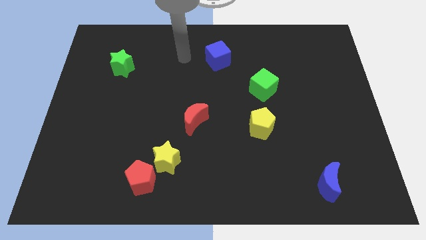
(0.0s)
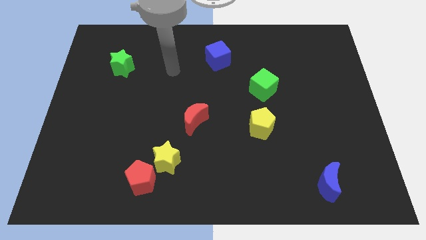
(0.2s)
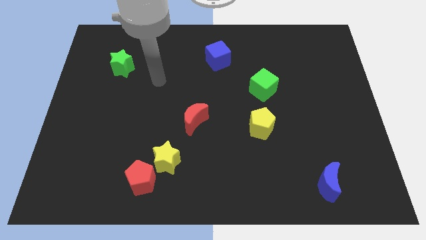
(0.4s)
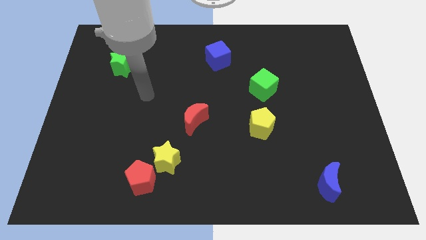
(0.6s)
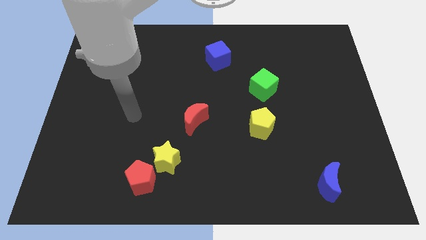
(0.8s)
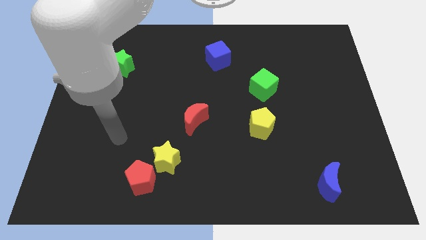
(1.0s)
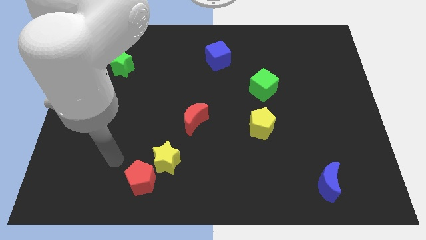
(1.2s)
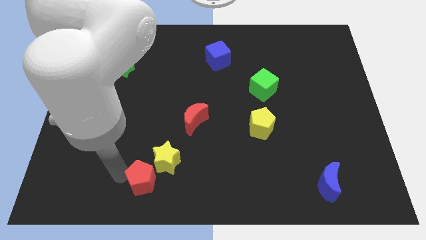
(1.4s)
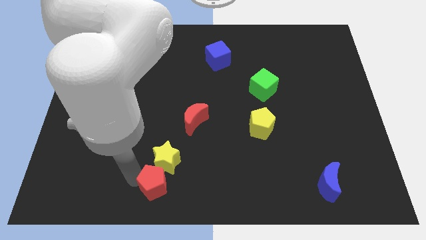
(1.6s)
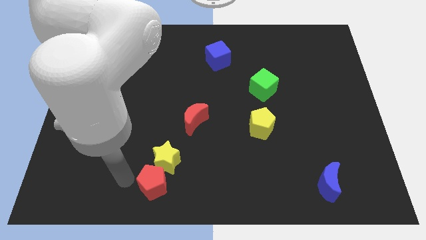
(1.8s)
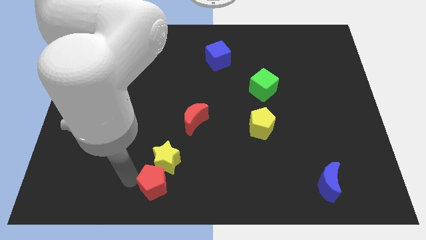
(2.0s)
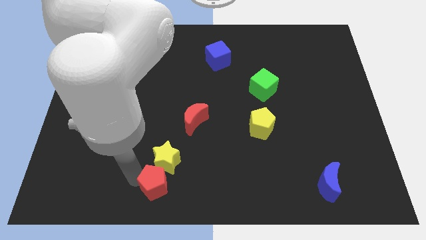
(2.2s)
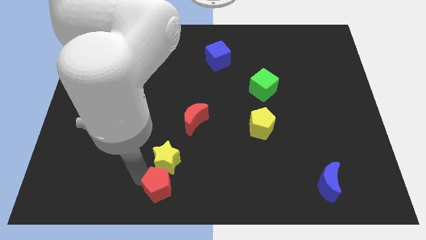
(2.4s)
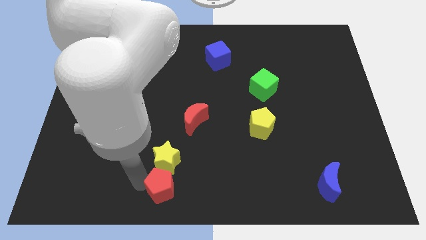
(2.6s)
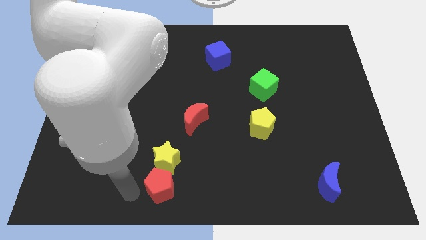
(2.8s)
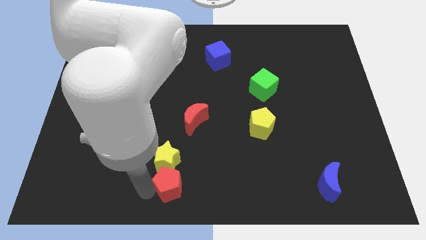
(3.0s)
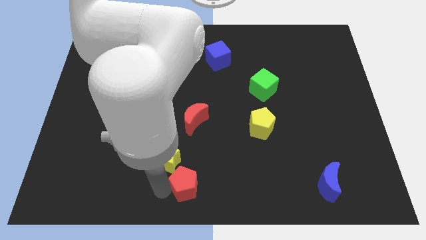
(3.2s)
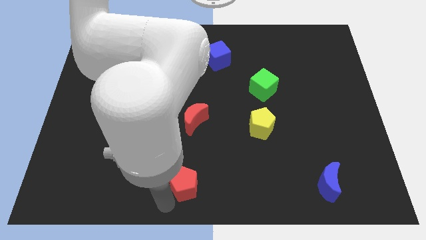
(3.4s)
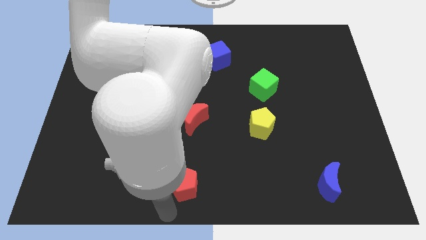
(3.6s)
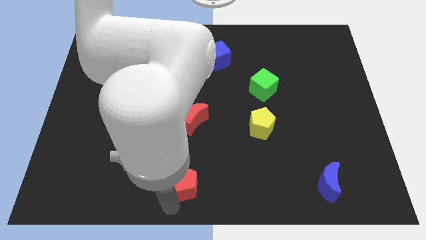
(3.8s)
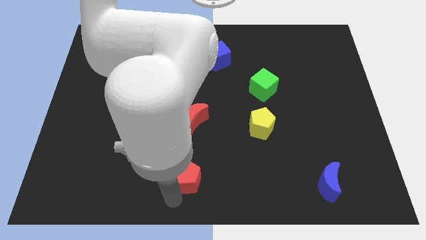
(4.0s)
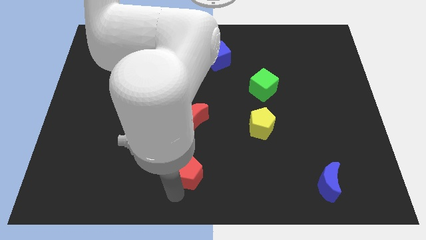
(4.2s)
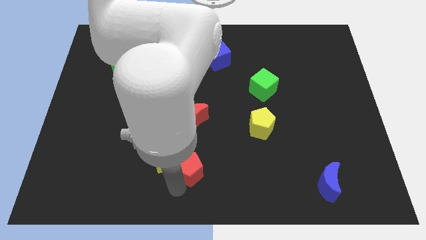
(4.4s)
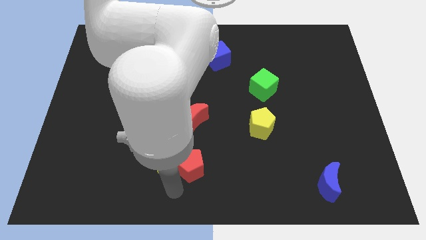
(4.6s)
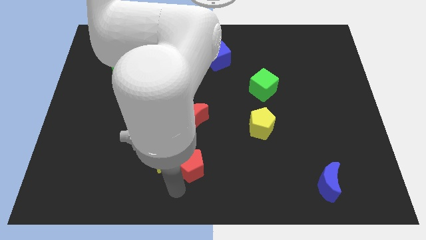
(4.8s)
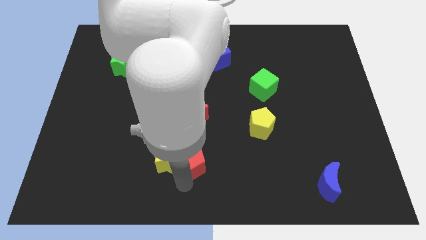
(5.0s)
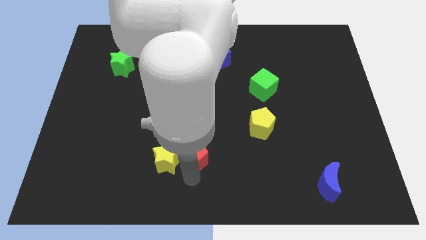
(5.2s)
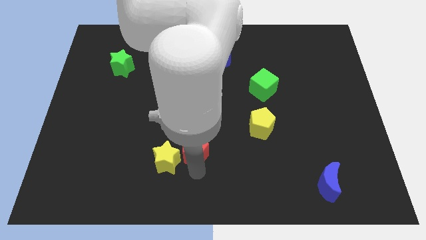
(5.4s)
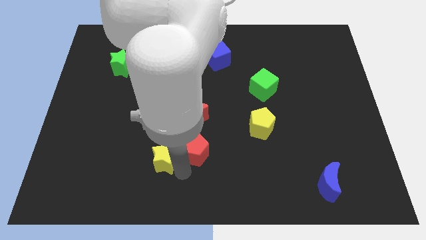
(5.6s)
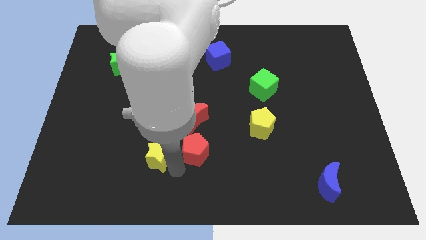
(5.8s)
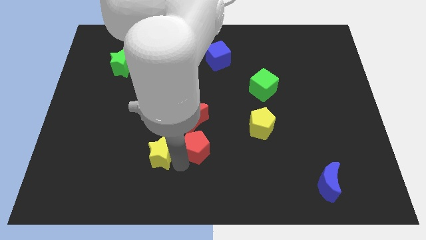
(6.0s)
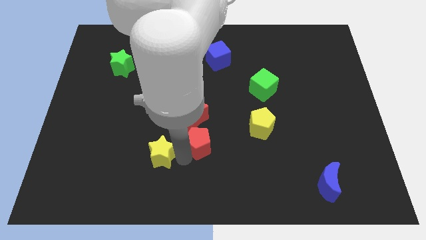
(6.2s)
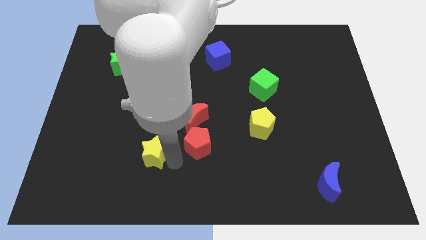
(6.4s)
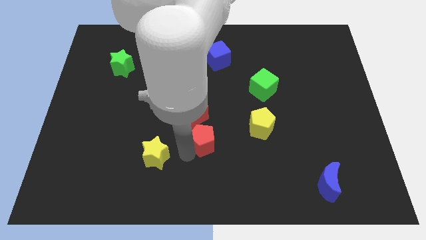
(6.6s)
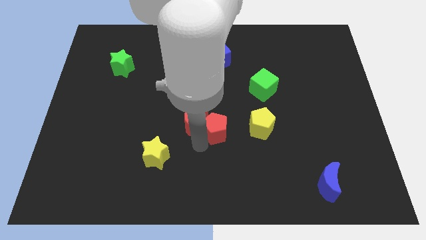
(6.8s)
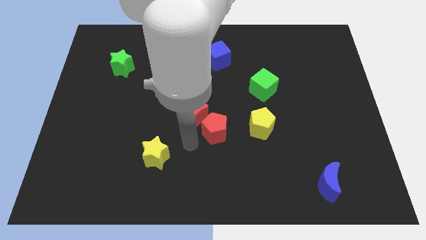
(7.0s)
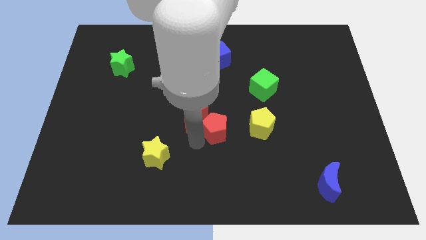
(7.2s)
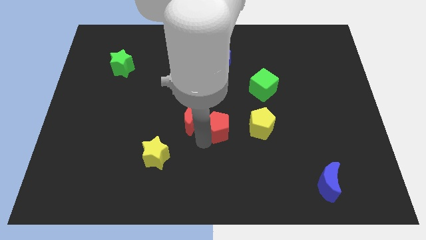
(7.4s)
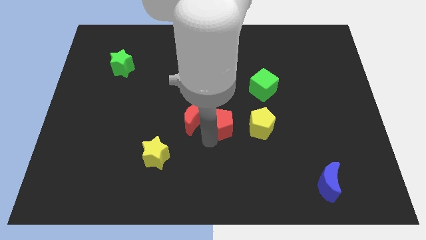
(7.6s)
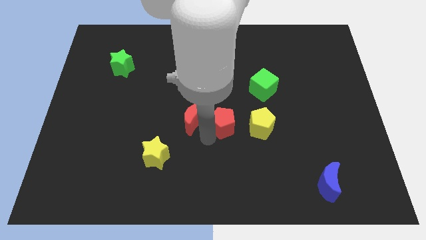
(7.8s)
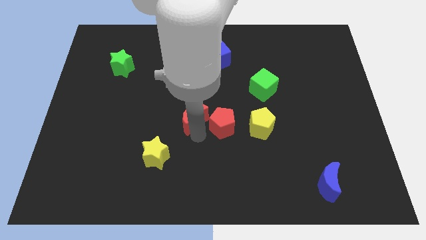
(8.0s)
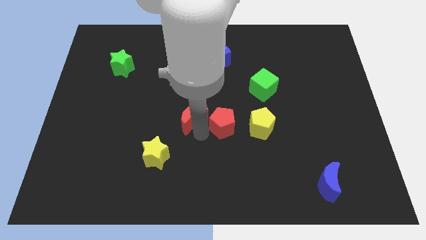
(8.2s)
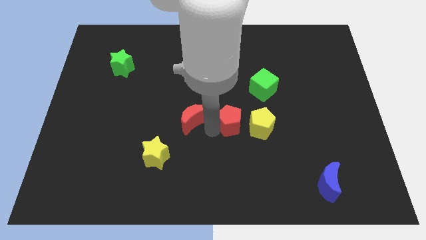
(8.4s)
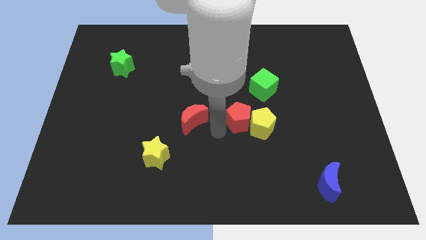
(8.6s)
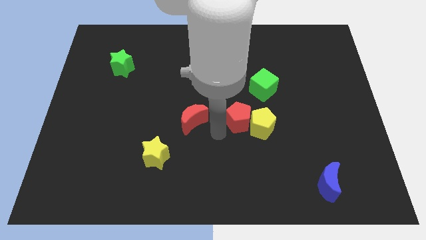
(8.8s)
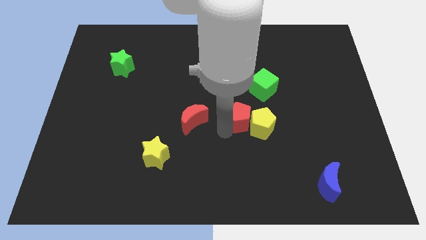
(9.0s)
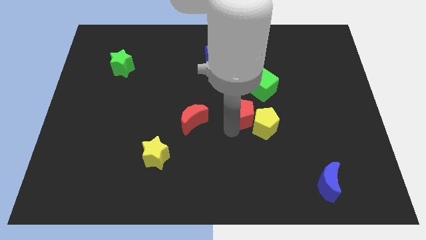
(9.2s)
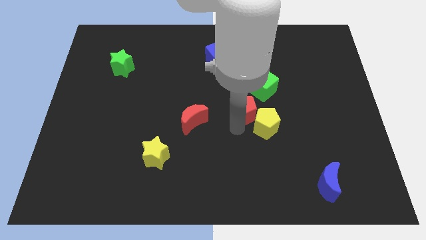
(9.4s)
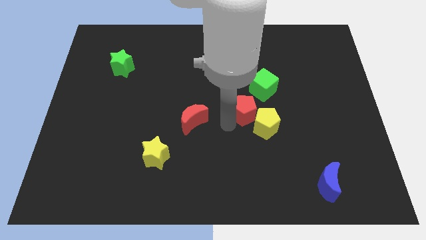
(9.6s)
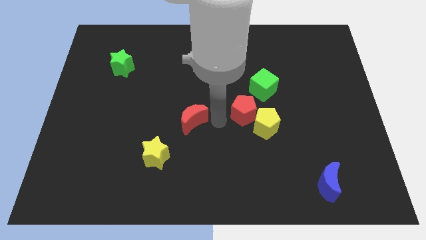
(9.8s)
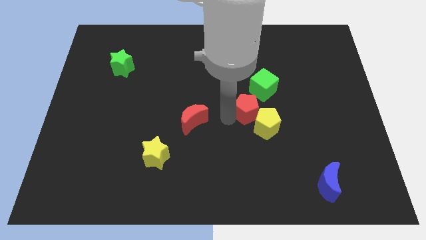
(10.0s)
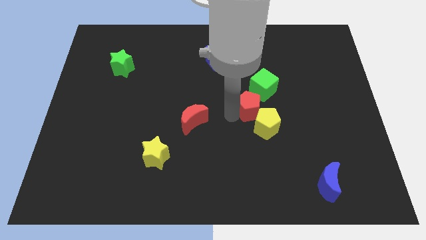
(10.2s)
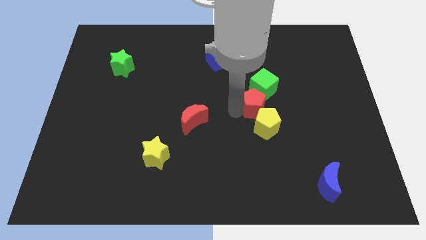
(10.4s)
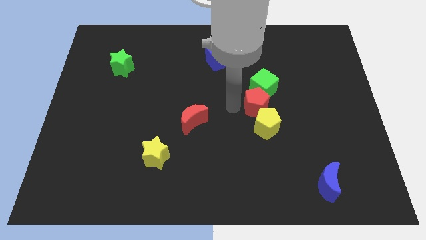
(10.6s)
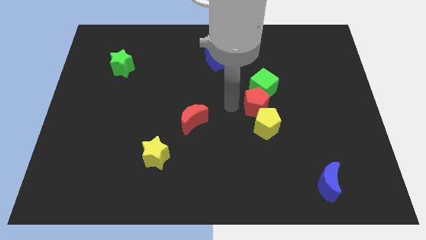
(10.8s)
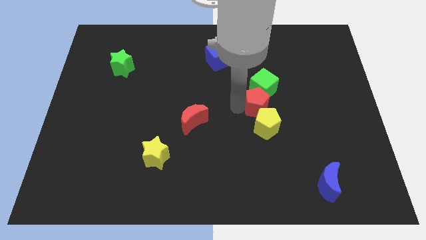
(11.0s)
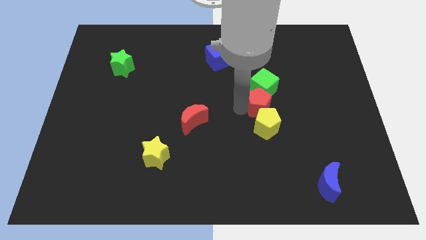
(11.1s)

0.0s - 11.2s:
put the red pentagon to the top right side of the yellow pentagon

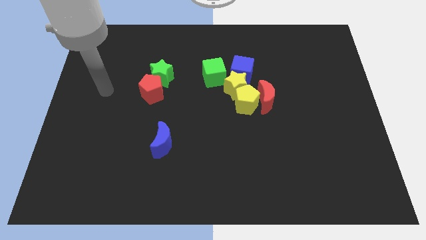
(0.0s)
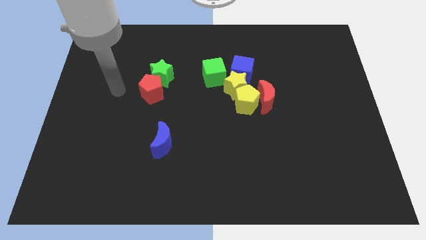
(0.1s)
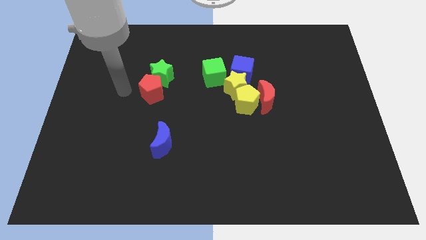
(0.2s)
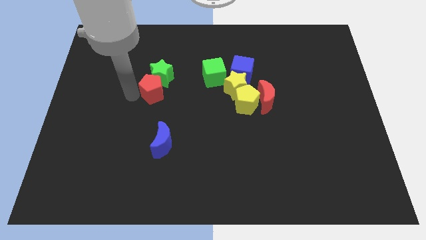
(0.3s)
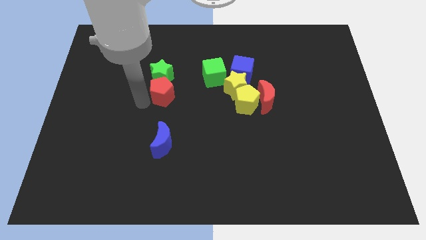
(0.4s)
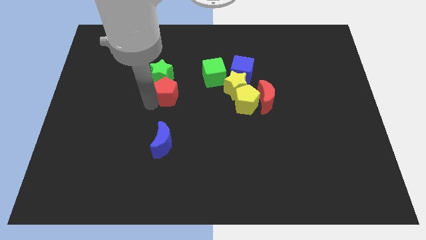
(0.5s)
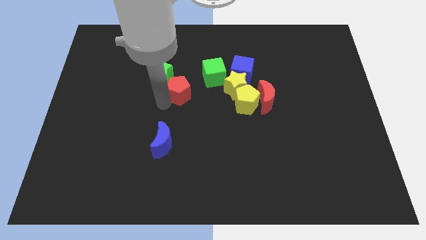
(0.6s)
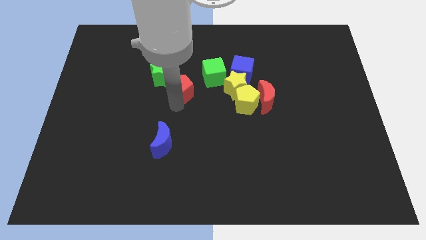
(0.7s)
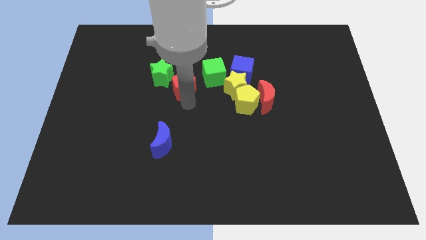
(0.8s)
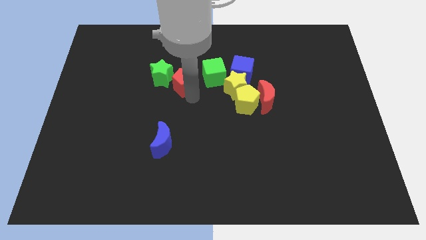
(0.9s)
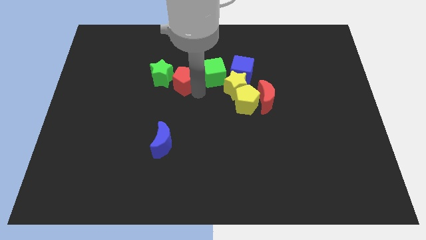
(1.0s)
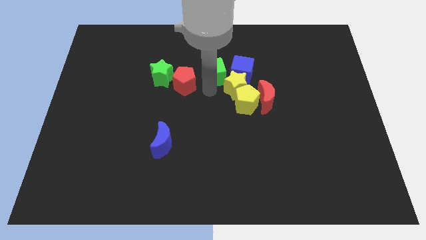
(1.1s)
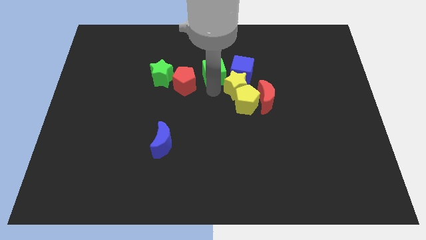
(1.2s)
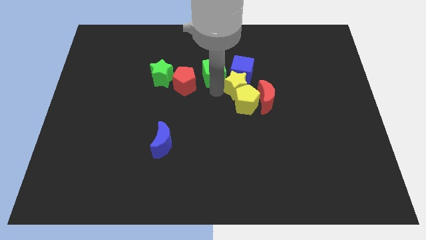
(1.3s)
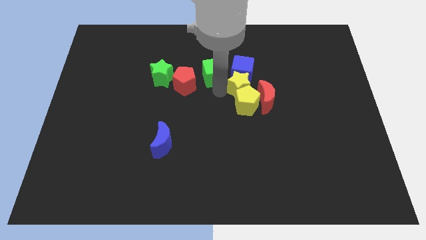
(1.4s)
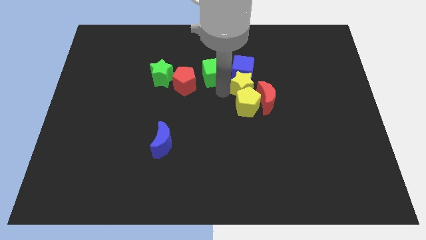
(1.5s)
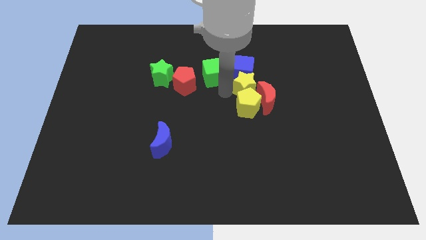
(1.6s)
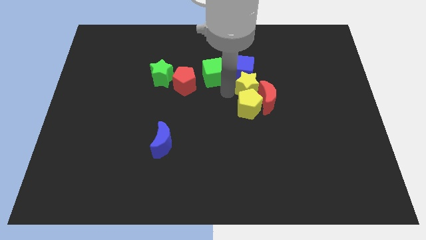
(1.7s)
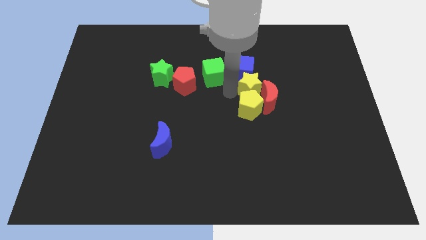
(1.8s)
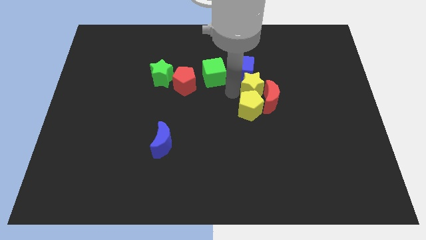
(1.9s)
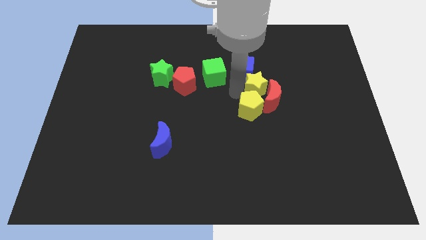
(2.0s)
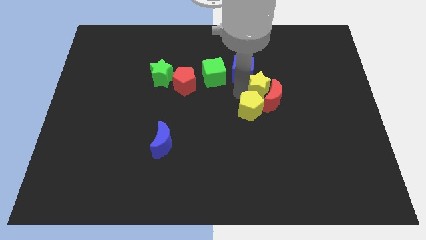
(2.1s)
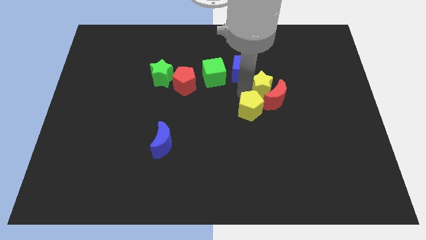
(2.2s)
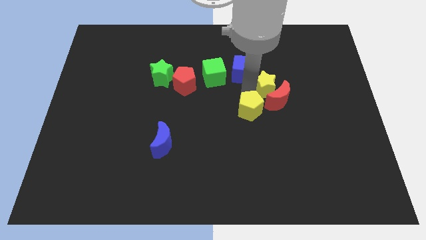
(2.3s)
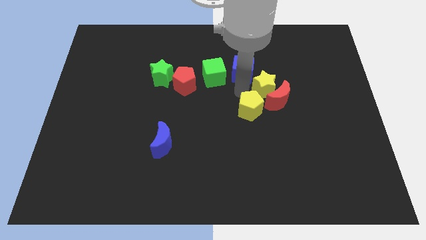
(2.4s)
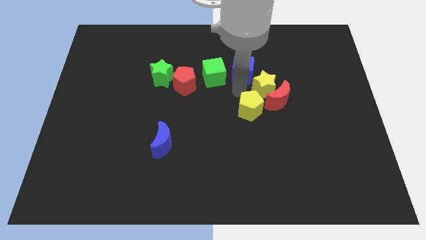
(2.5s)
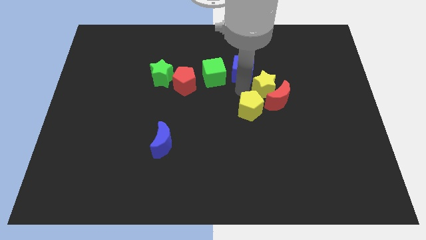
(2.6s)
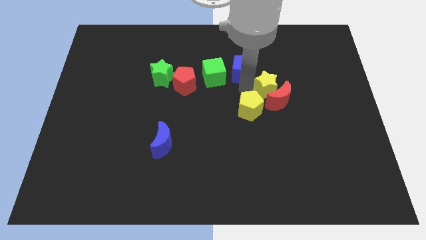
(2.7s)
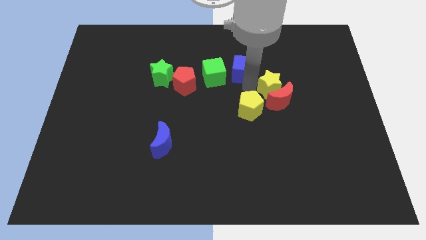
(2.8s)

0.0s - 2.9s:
slide the yellow star to the top right of the red moon
